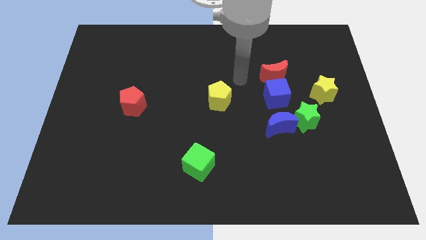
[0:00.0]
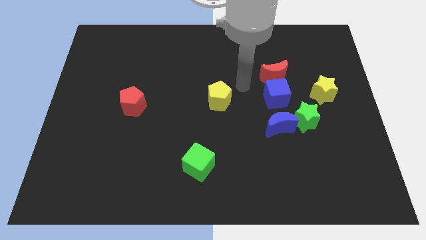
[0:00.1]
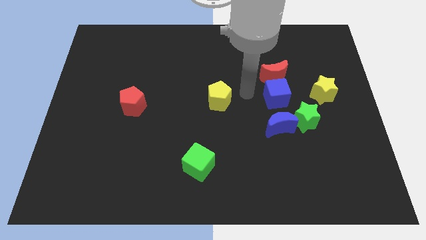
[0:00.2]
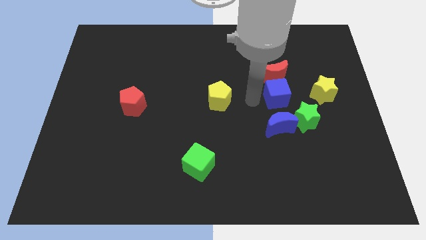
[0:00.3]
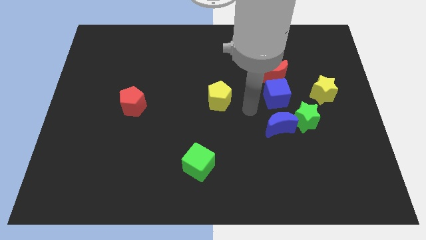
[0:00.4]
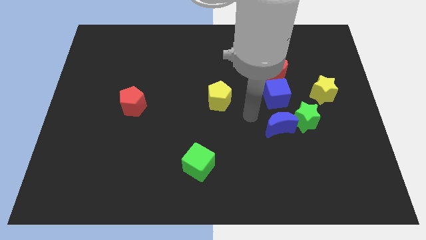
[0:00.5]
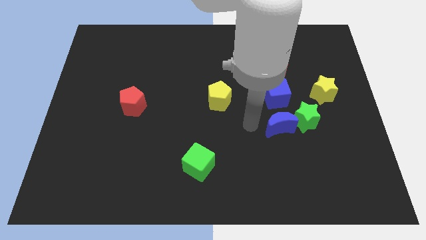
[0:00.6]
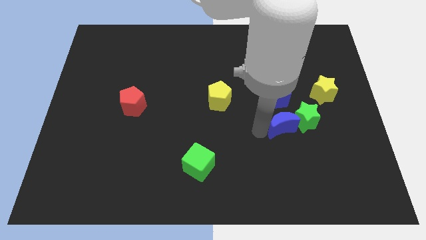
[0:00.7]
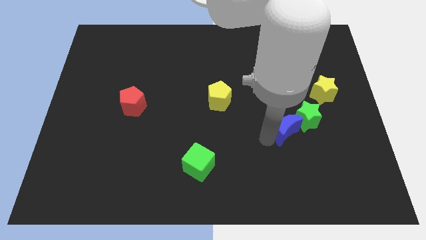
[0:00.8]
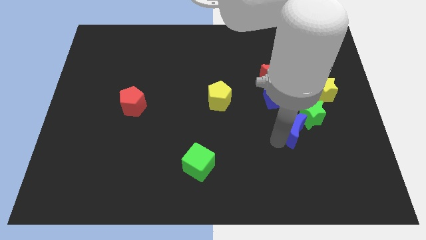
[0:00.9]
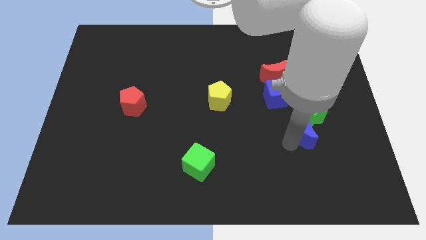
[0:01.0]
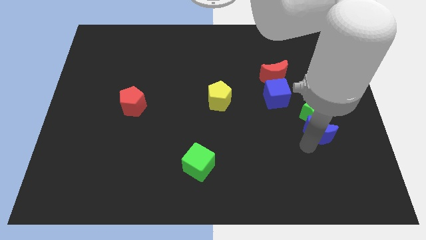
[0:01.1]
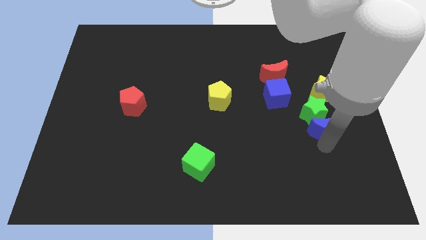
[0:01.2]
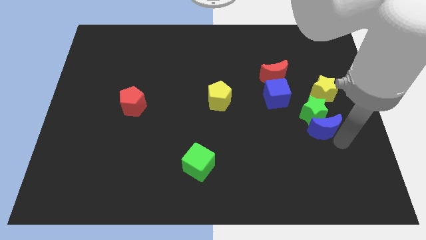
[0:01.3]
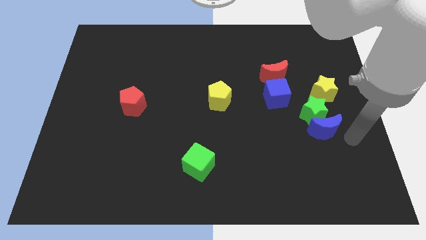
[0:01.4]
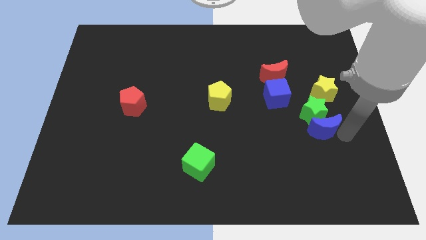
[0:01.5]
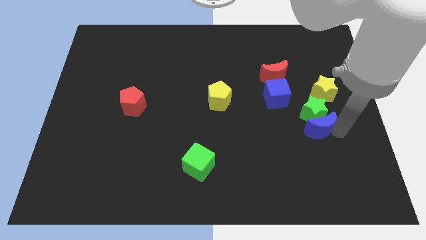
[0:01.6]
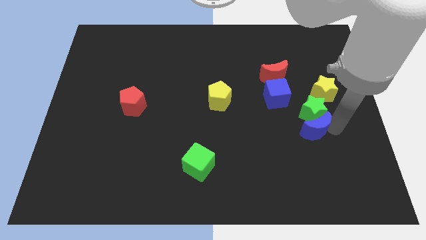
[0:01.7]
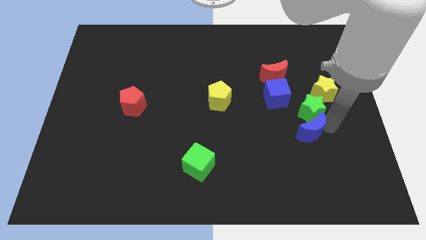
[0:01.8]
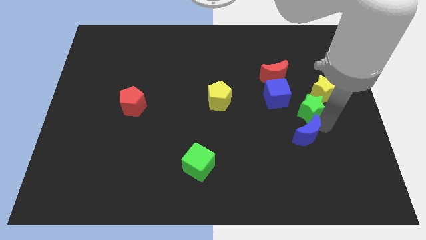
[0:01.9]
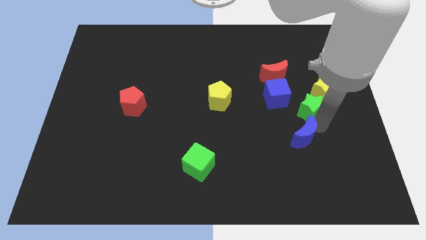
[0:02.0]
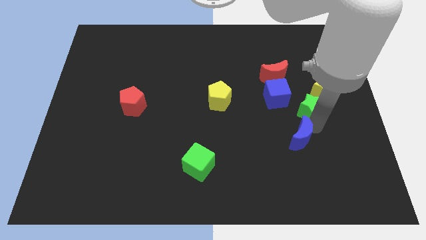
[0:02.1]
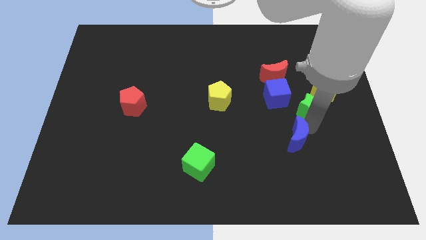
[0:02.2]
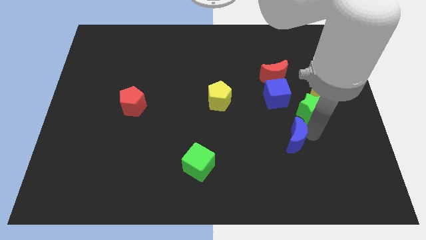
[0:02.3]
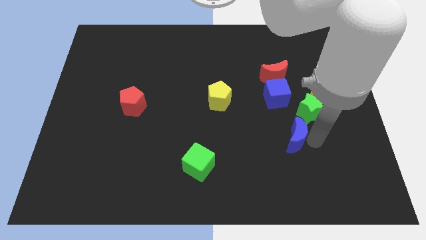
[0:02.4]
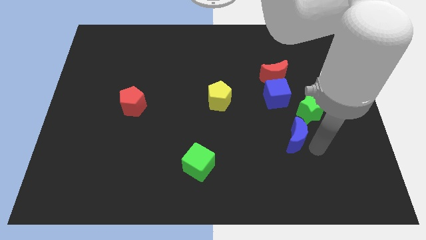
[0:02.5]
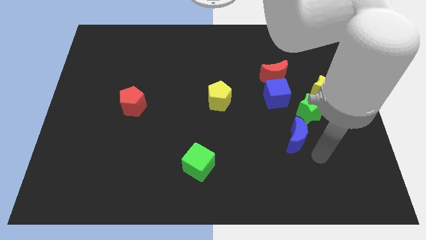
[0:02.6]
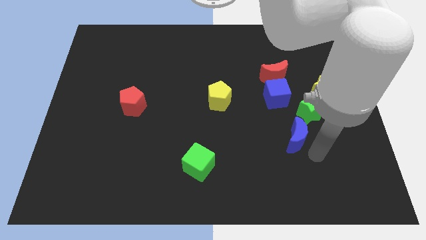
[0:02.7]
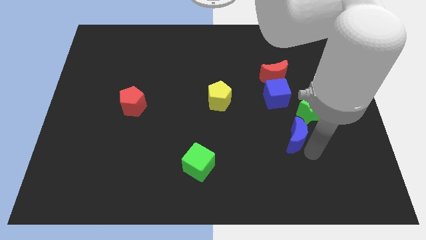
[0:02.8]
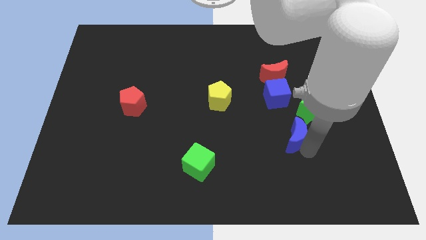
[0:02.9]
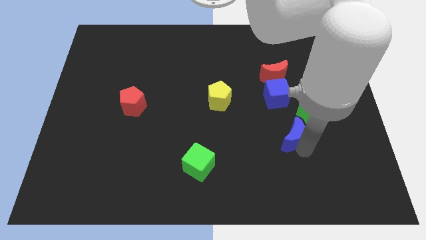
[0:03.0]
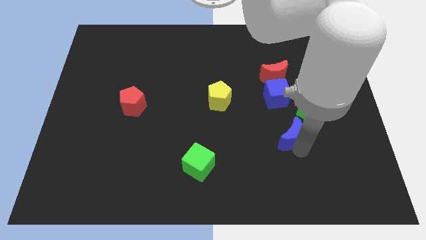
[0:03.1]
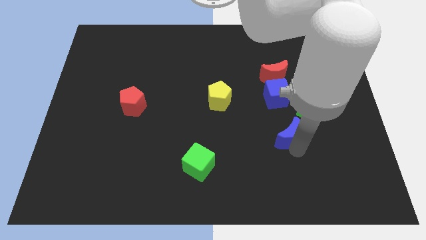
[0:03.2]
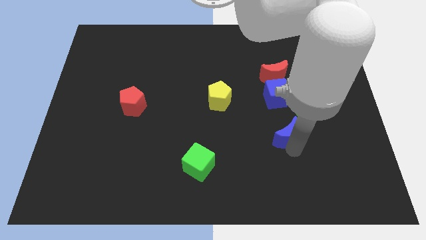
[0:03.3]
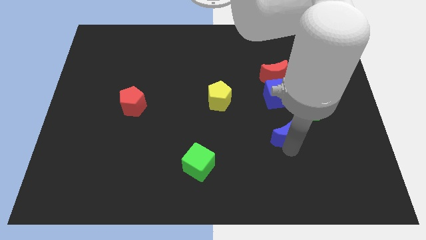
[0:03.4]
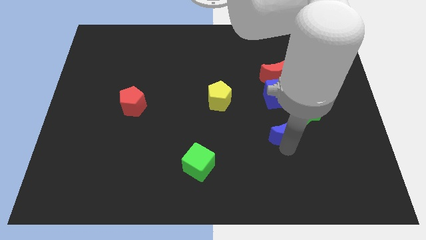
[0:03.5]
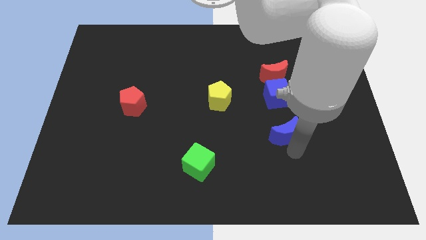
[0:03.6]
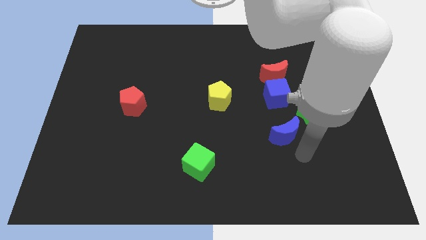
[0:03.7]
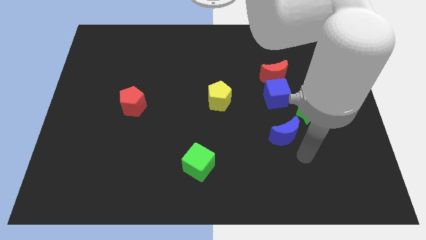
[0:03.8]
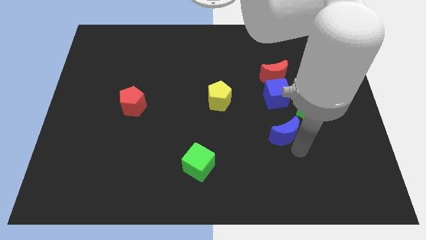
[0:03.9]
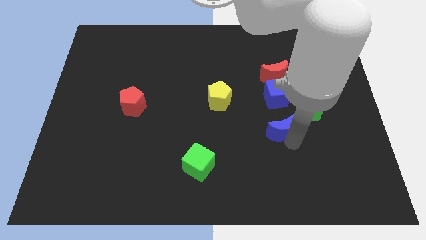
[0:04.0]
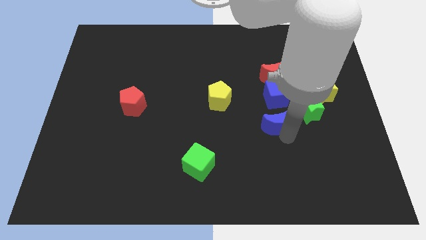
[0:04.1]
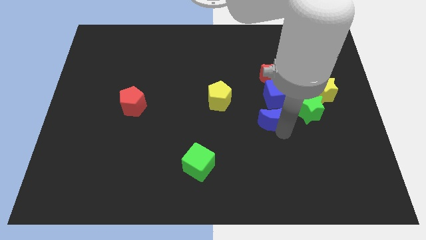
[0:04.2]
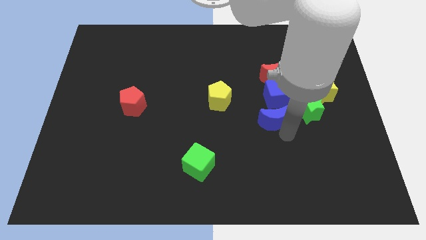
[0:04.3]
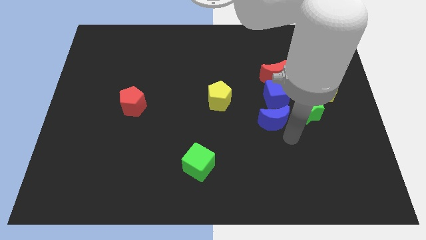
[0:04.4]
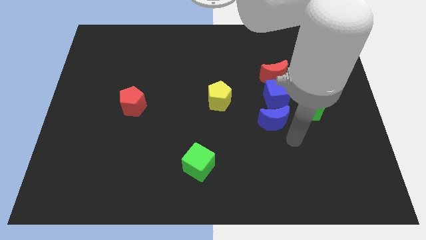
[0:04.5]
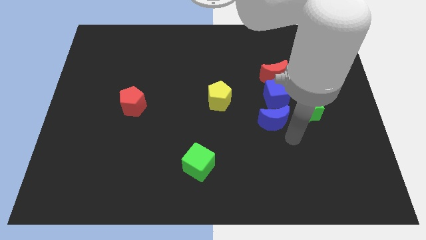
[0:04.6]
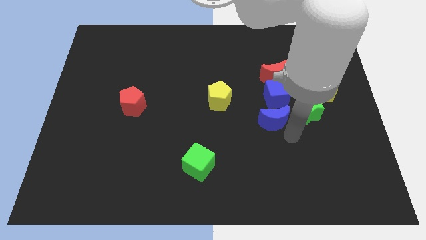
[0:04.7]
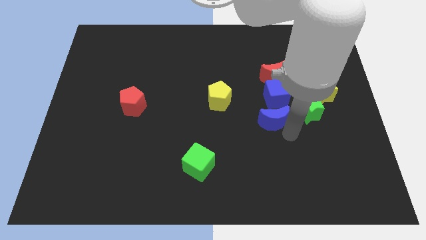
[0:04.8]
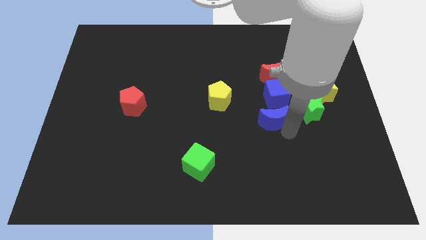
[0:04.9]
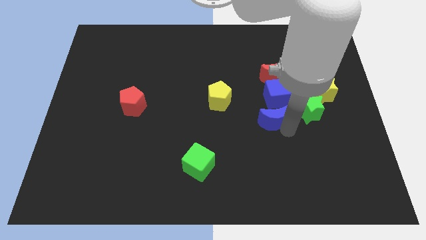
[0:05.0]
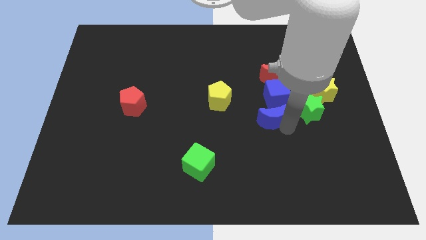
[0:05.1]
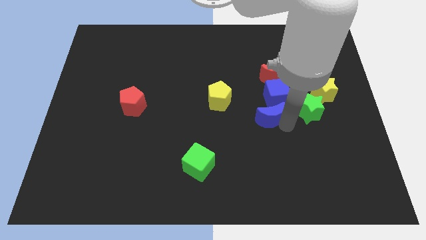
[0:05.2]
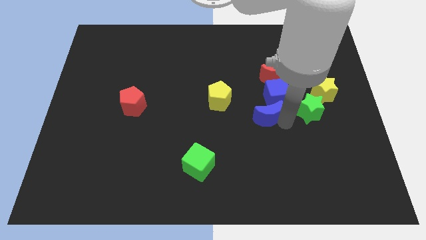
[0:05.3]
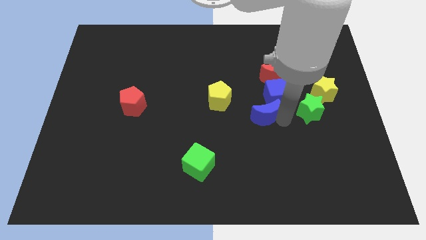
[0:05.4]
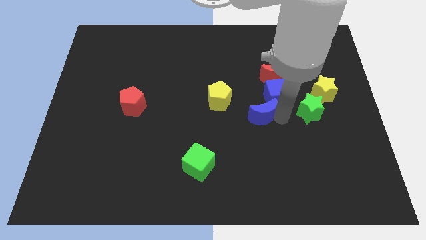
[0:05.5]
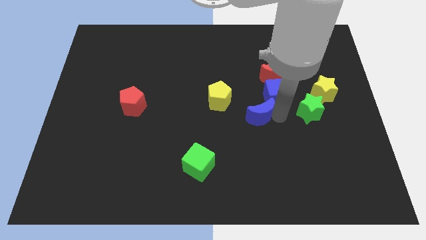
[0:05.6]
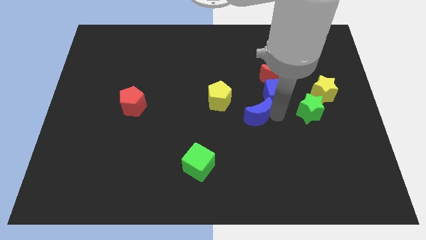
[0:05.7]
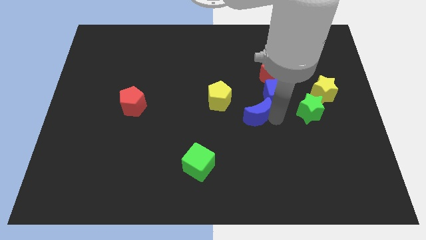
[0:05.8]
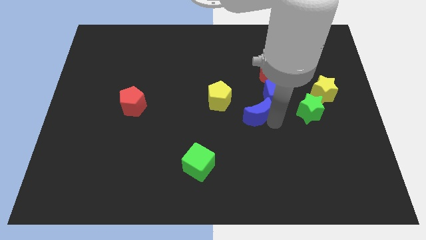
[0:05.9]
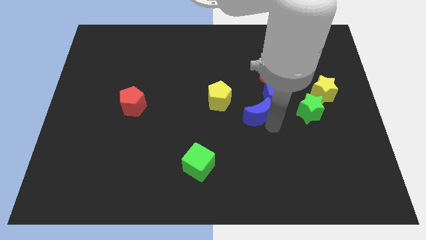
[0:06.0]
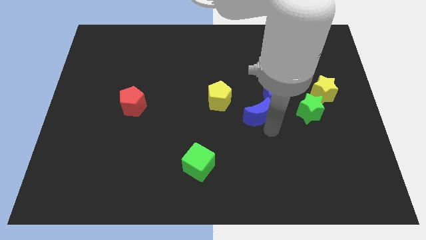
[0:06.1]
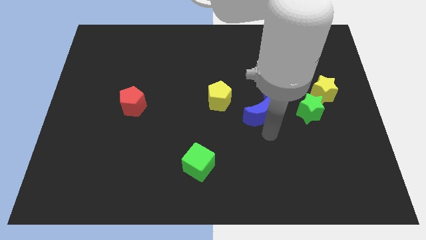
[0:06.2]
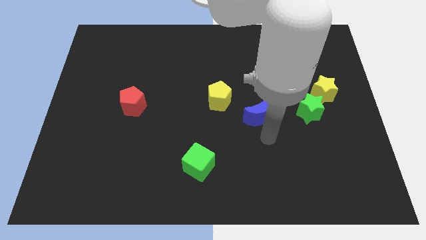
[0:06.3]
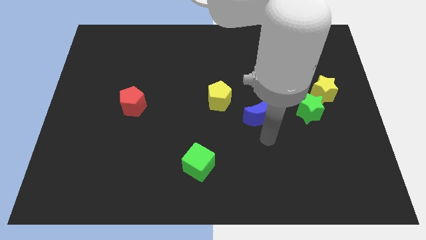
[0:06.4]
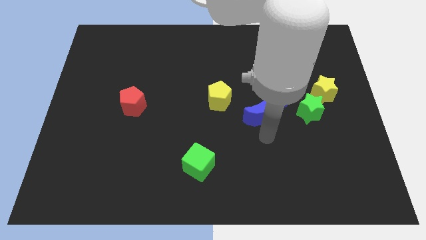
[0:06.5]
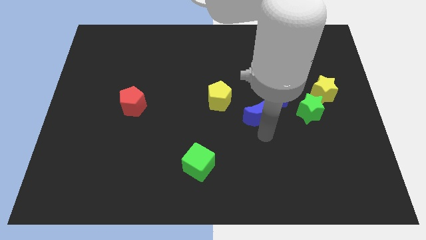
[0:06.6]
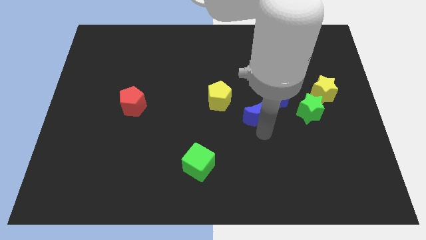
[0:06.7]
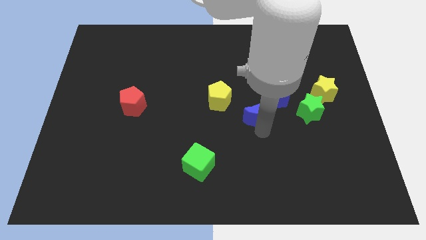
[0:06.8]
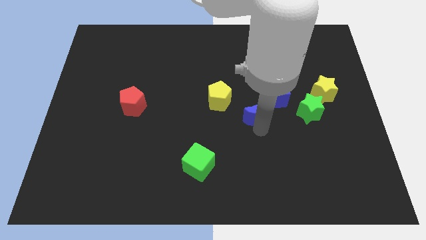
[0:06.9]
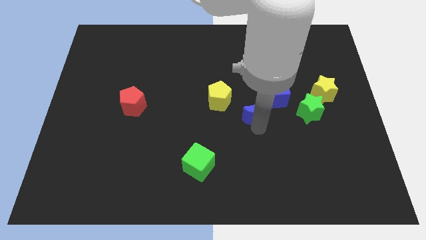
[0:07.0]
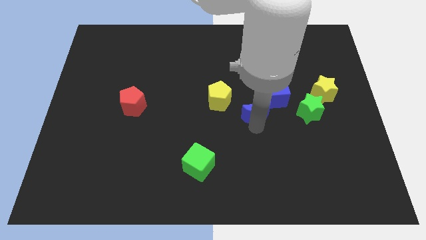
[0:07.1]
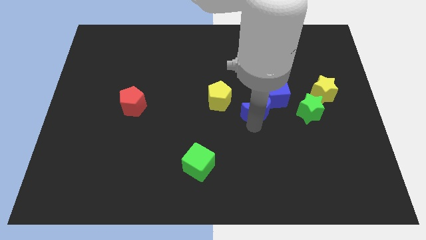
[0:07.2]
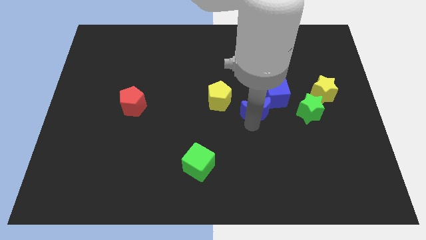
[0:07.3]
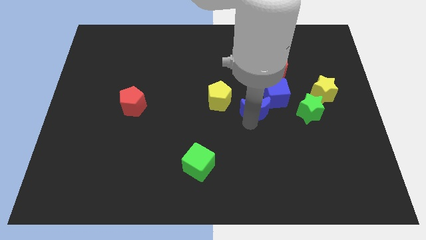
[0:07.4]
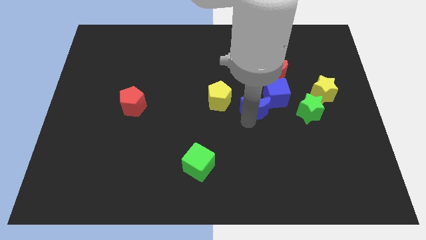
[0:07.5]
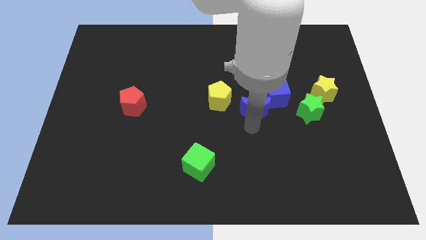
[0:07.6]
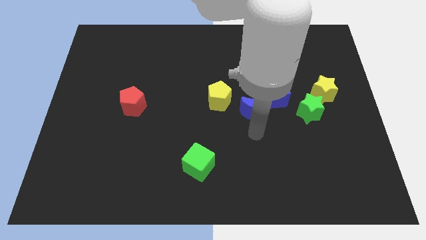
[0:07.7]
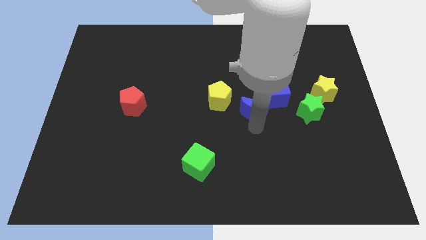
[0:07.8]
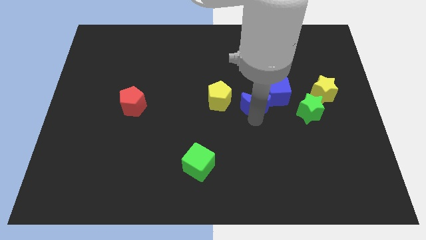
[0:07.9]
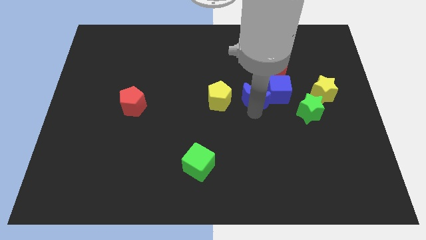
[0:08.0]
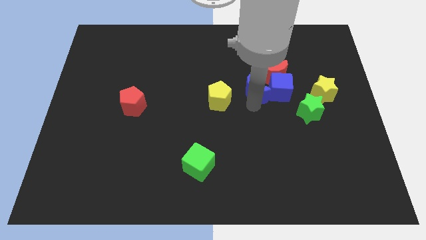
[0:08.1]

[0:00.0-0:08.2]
slide the blue moon diagonally up and to the left of the blue cube
